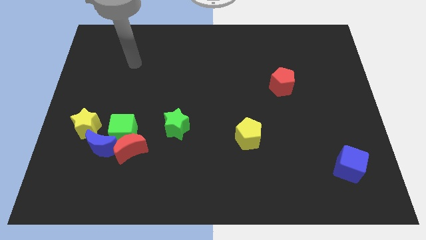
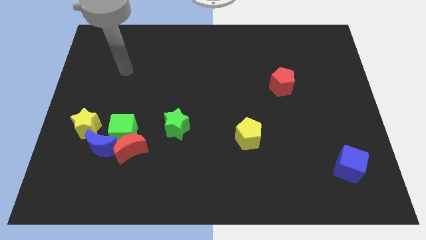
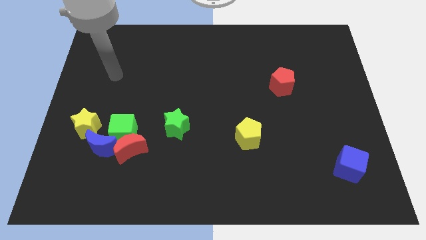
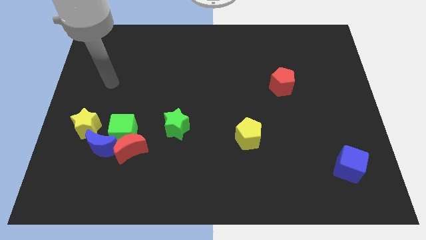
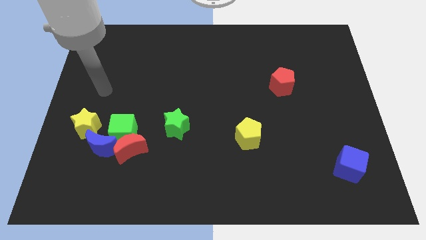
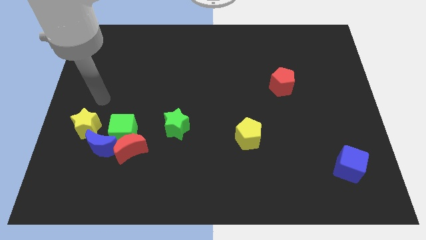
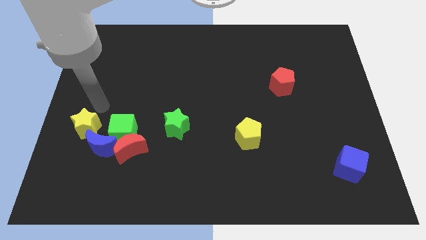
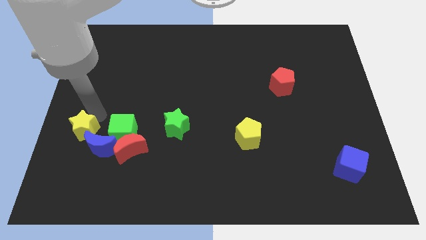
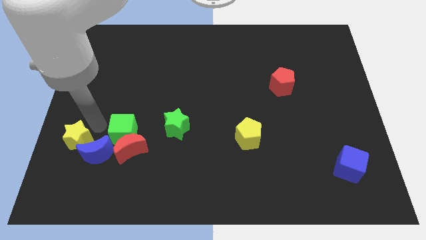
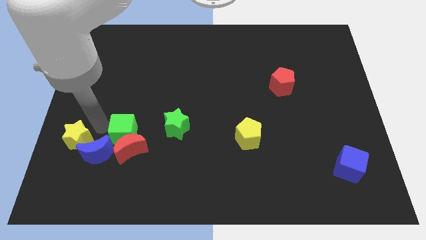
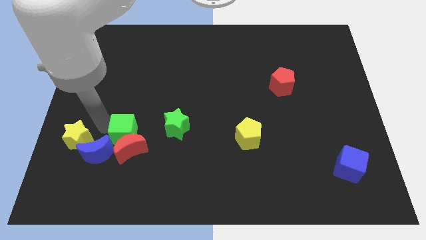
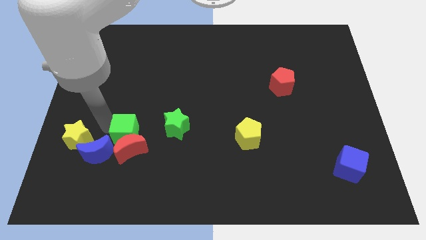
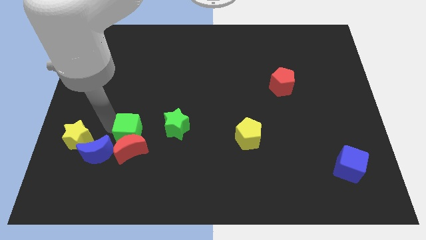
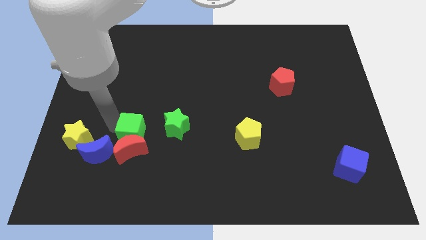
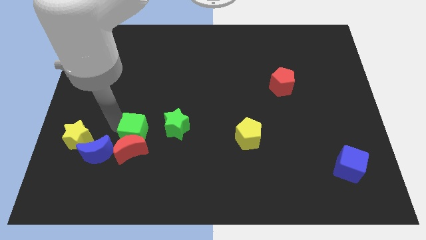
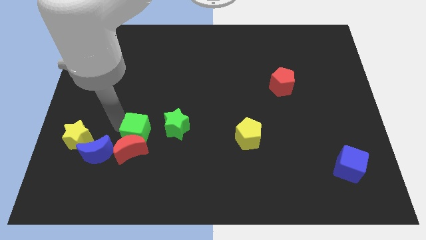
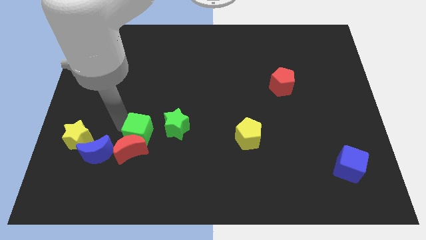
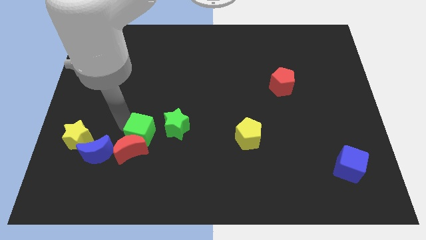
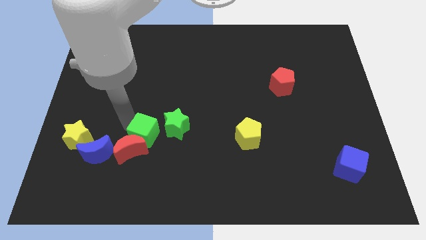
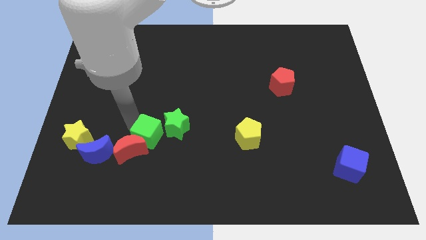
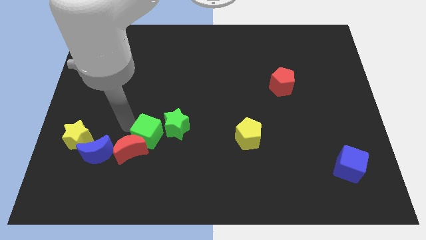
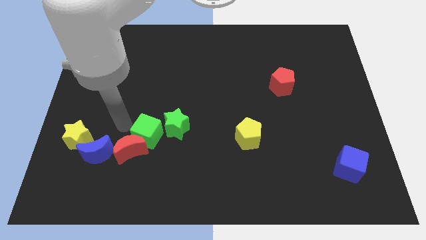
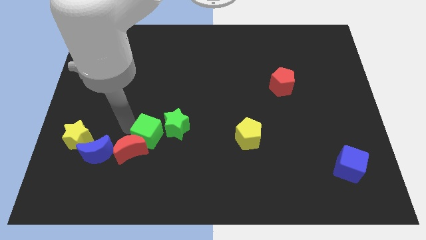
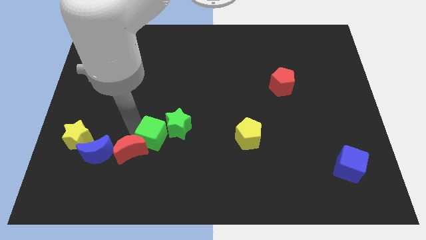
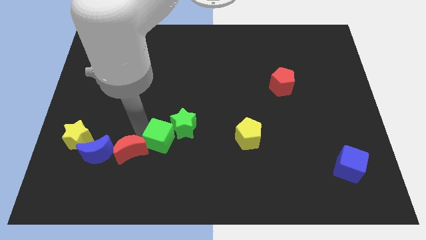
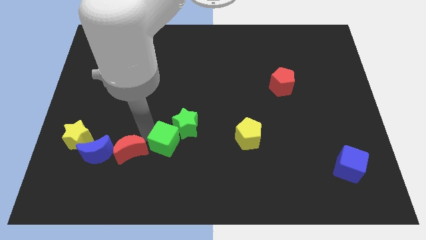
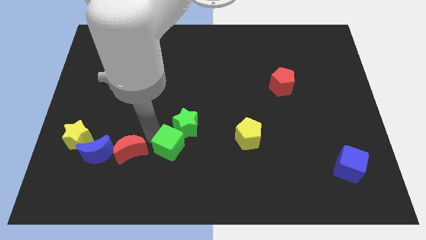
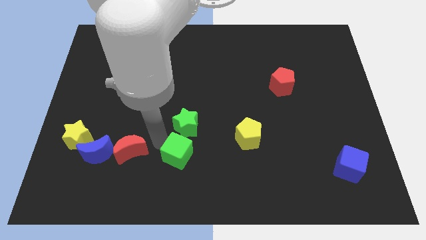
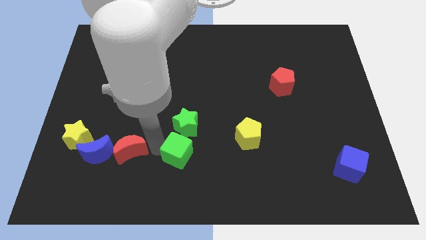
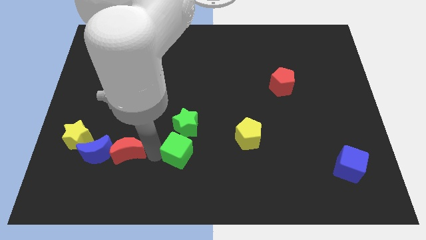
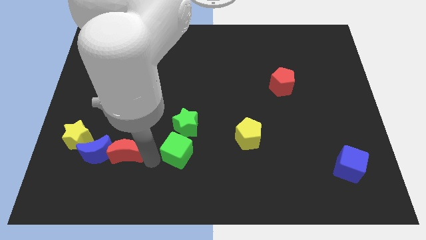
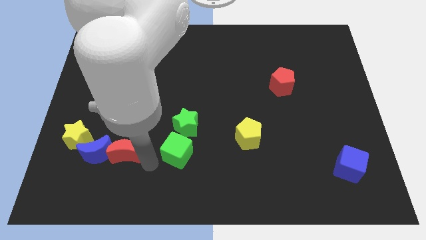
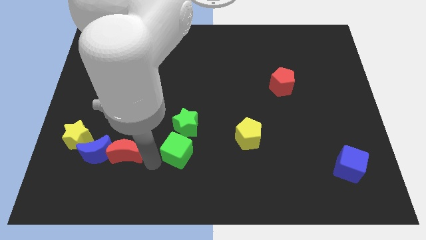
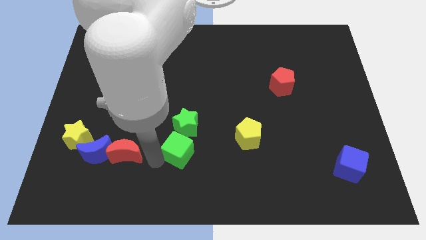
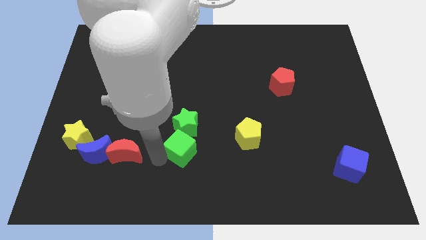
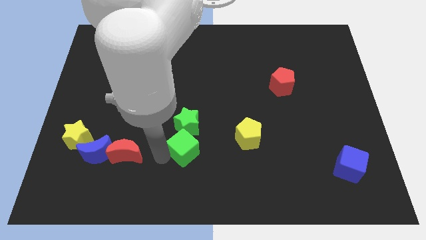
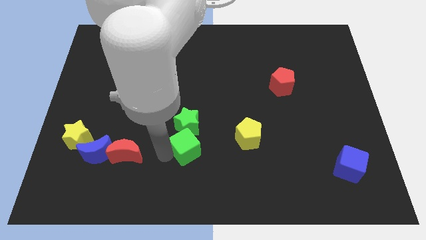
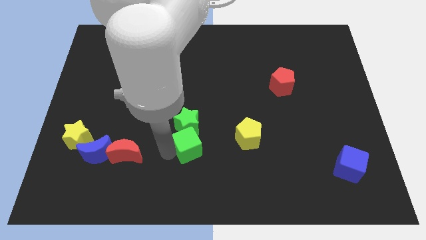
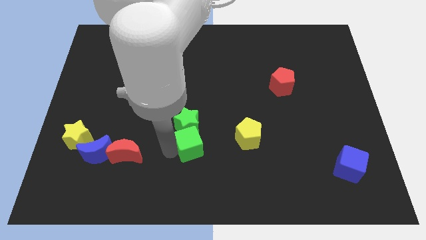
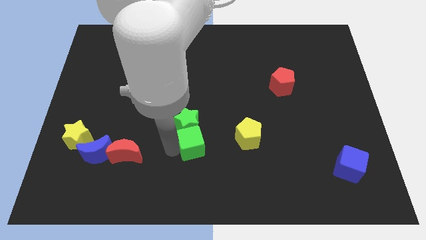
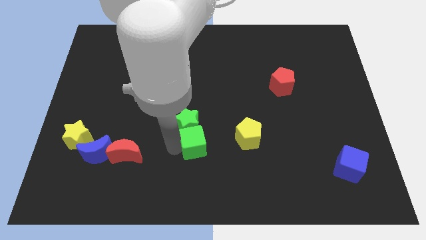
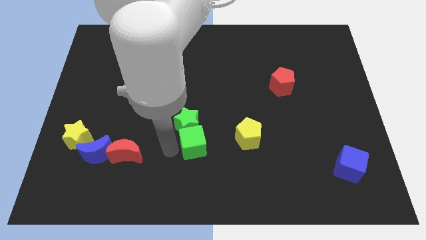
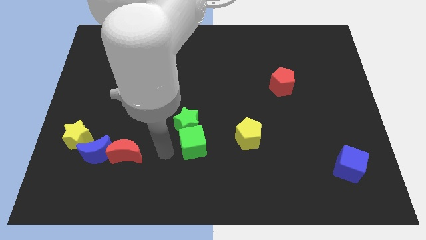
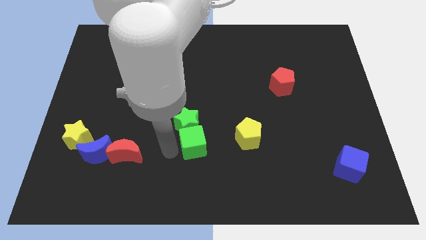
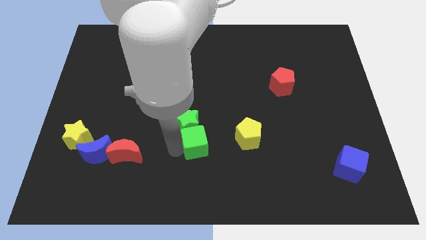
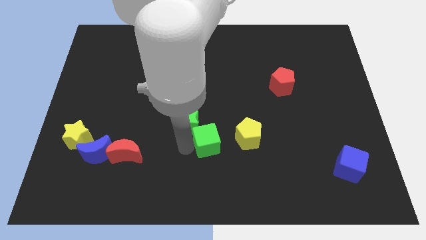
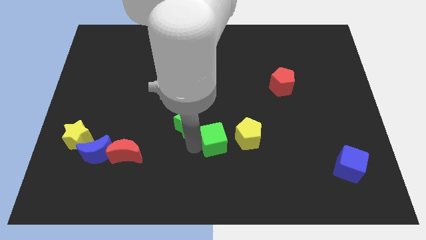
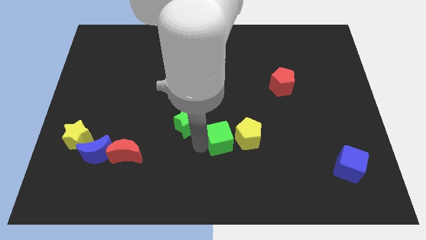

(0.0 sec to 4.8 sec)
move the green cube next to the yellow pentagon

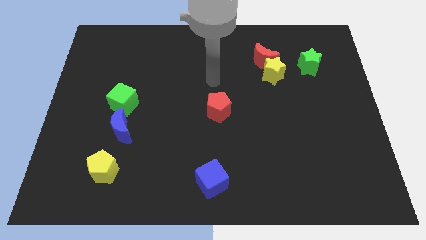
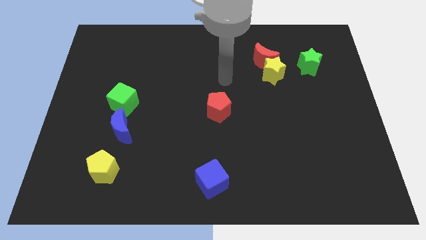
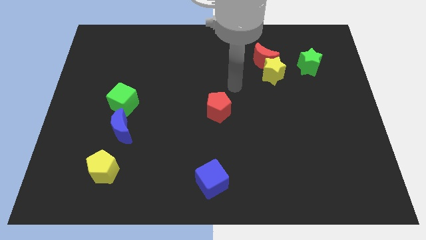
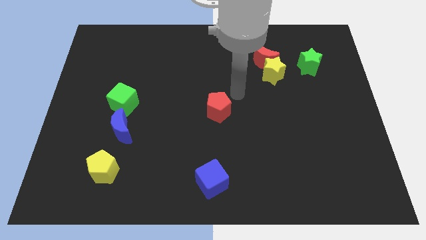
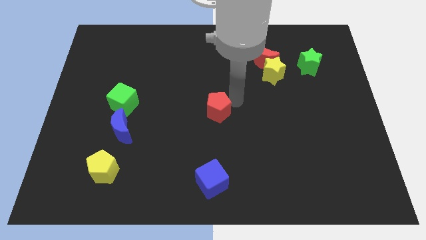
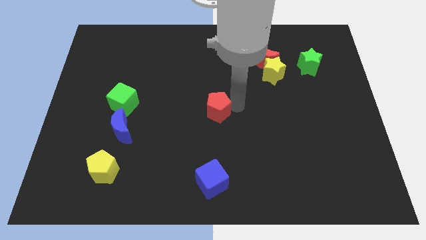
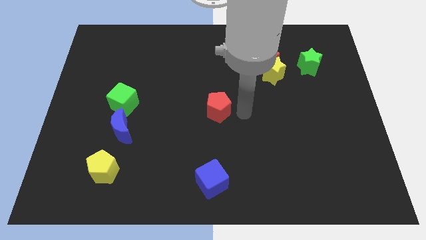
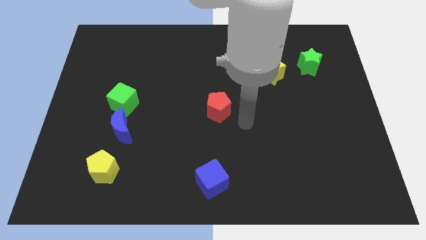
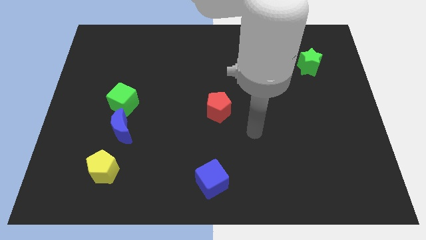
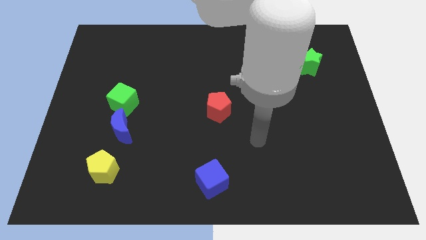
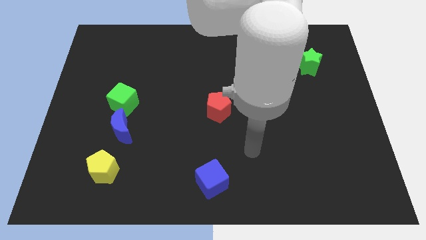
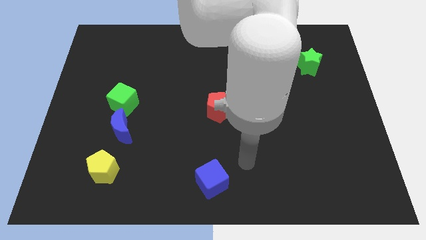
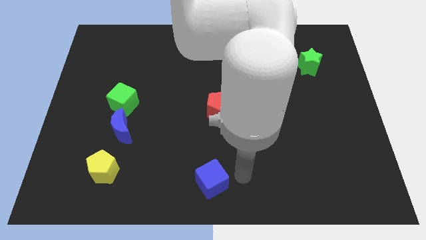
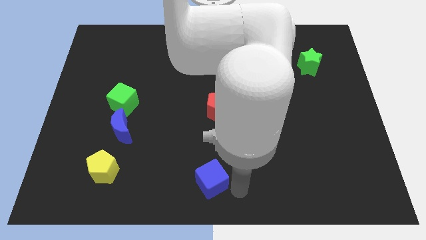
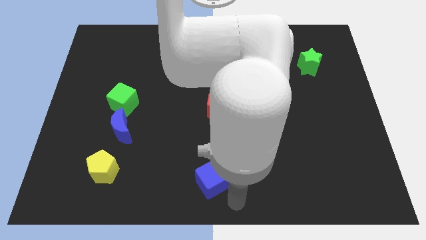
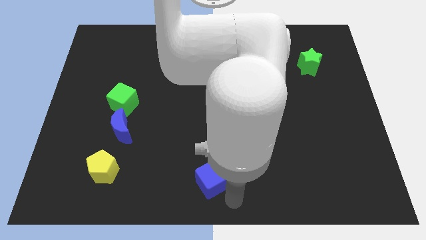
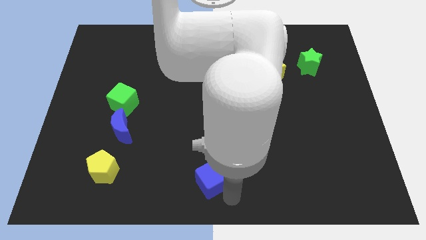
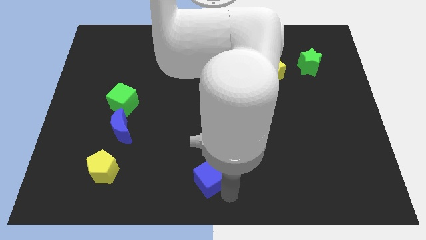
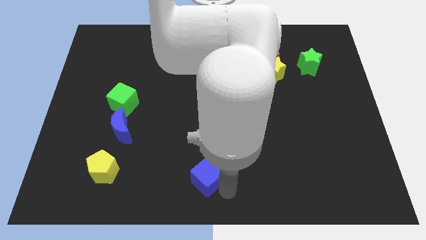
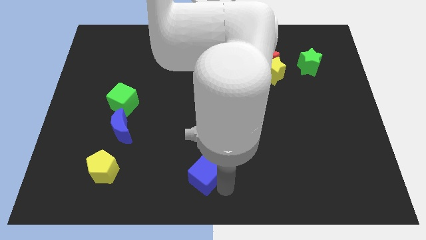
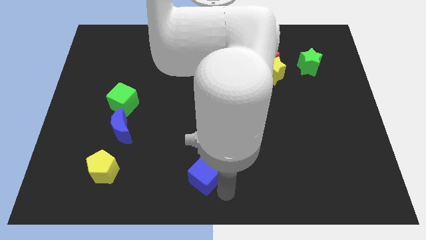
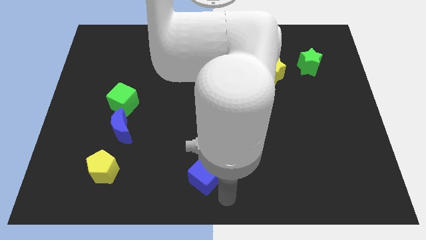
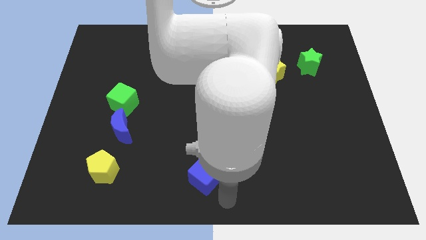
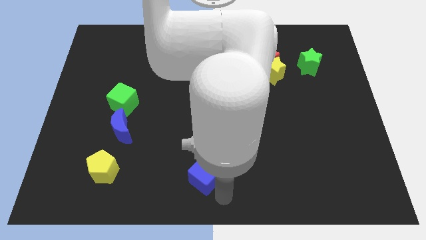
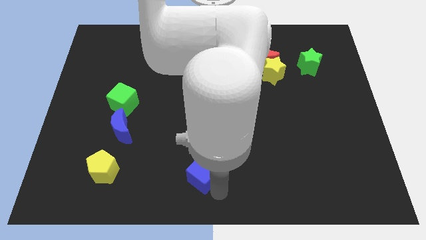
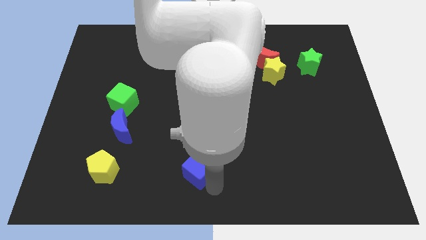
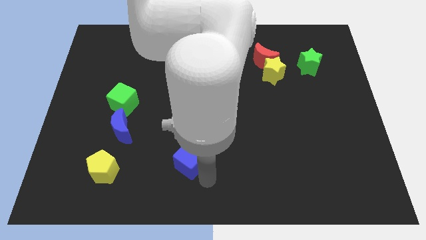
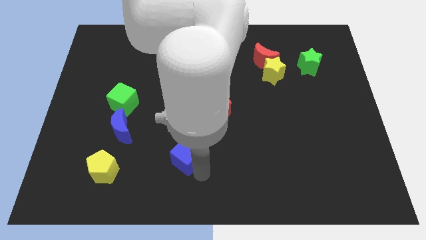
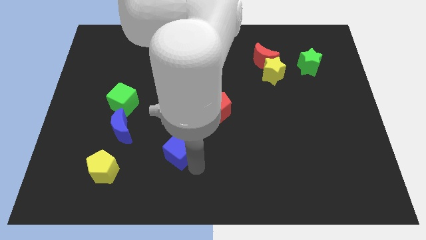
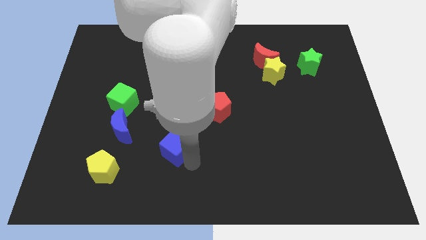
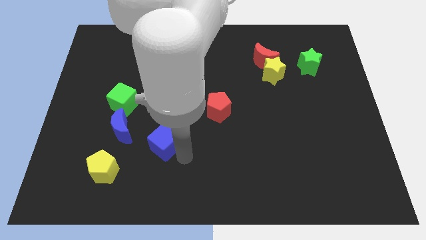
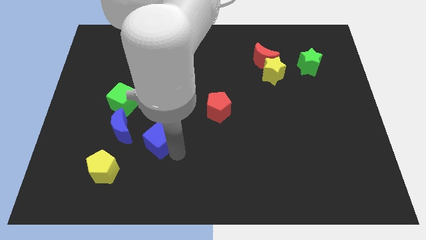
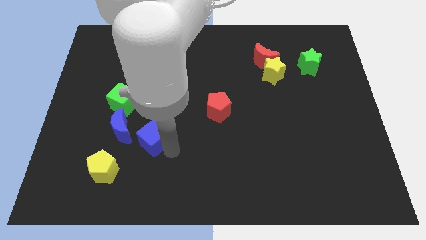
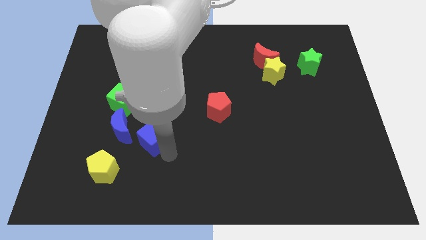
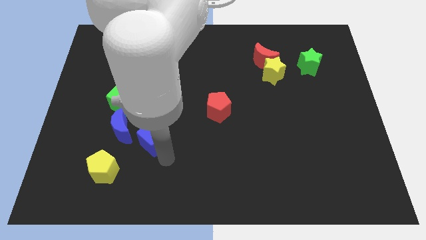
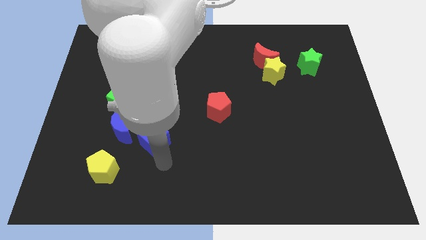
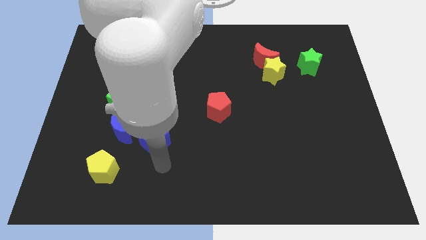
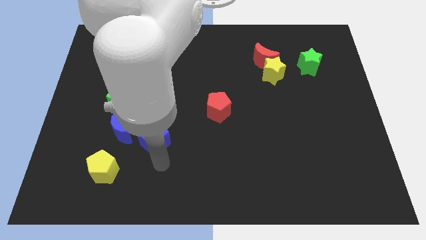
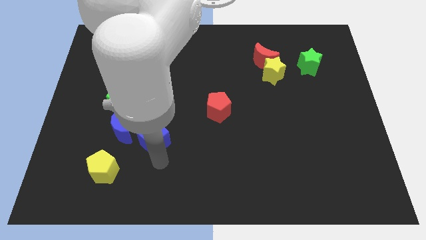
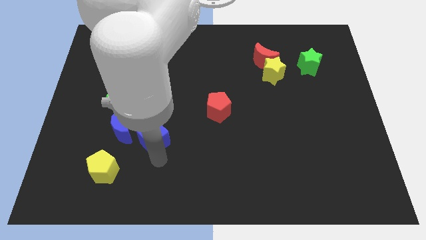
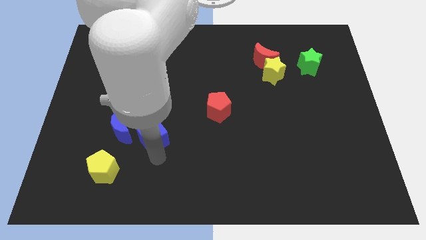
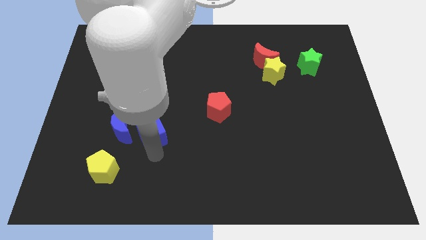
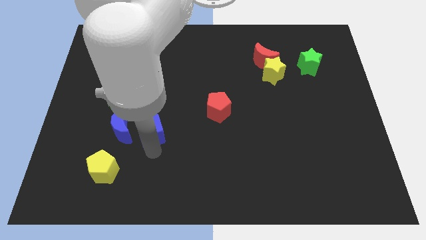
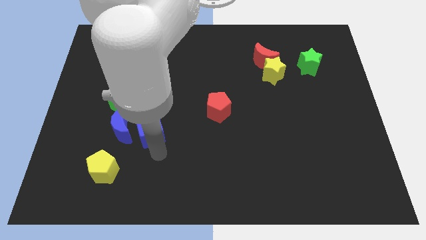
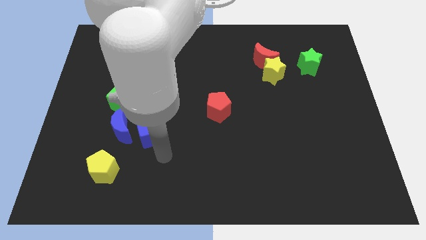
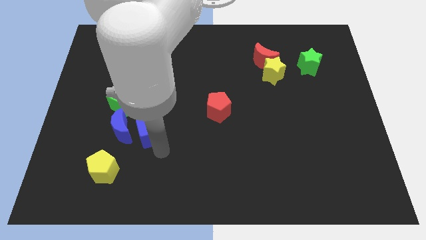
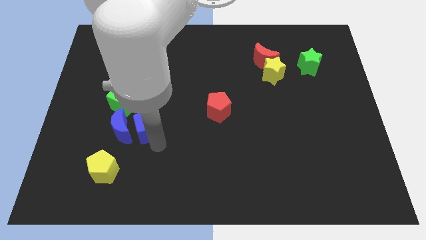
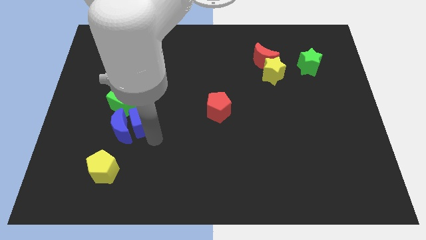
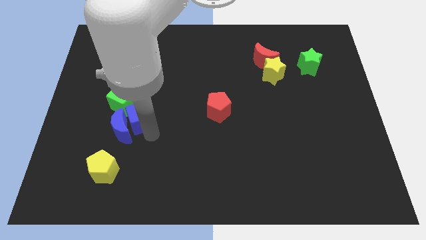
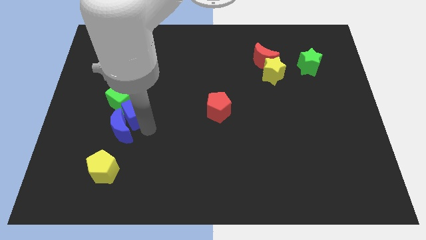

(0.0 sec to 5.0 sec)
push the blue cube close to the green cube
